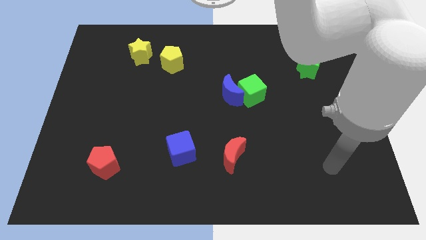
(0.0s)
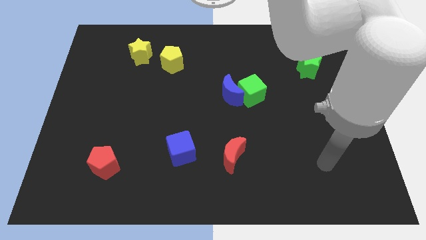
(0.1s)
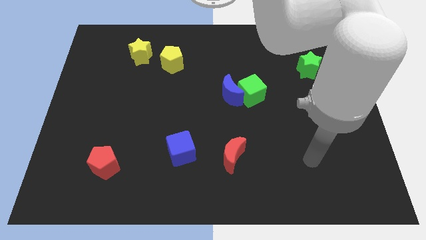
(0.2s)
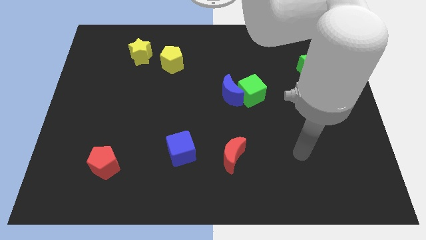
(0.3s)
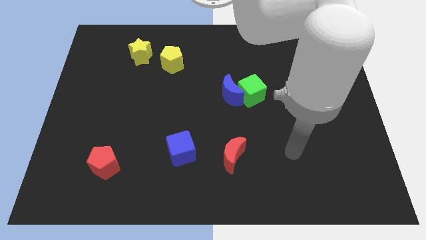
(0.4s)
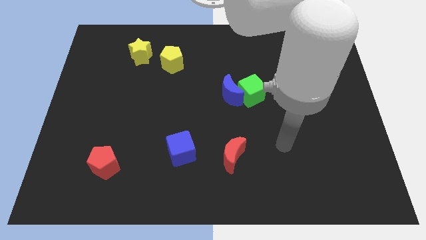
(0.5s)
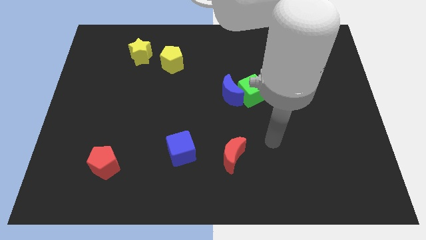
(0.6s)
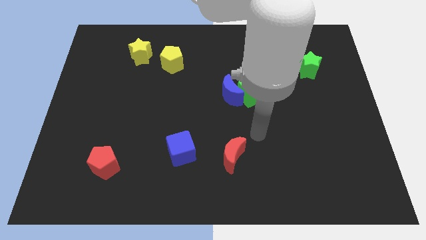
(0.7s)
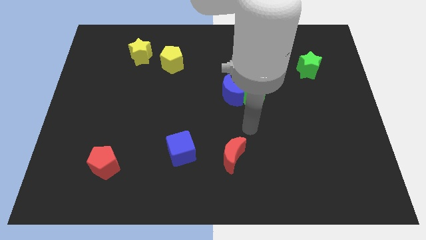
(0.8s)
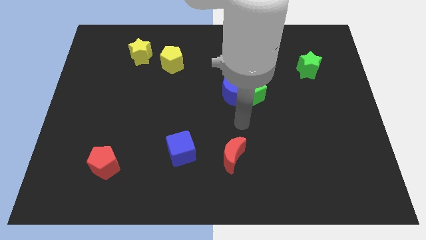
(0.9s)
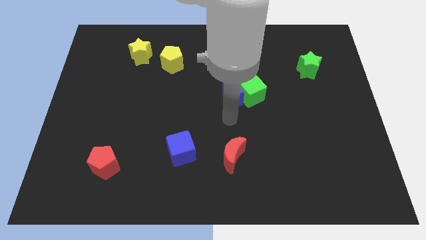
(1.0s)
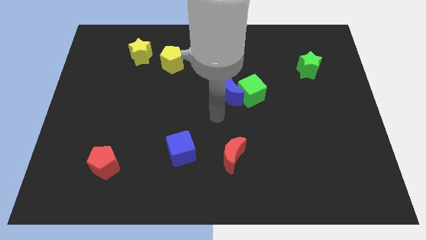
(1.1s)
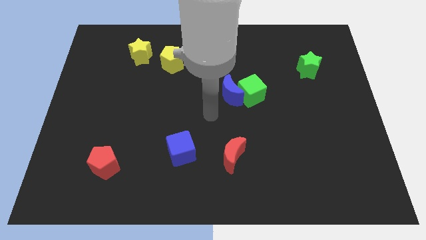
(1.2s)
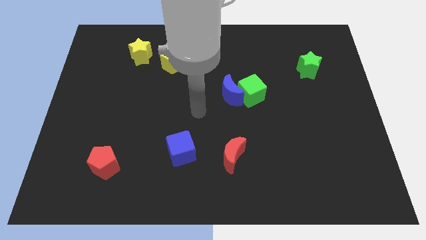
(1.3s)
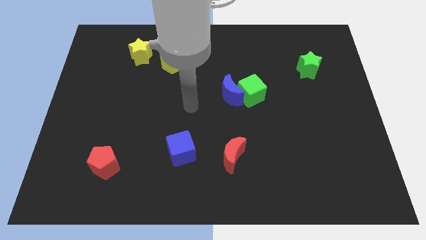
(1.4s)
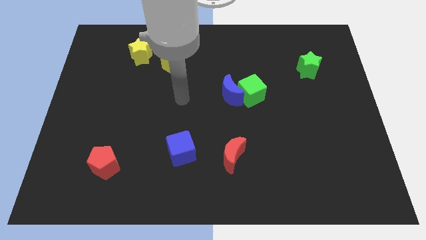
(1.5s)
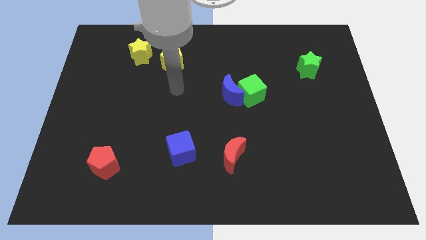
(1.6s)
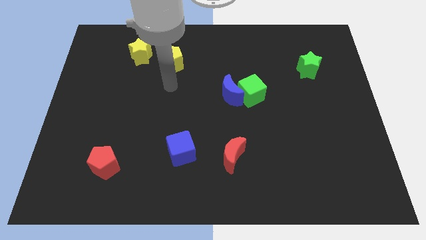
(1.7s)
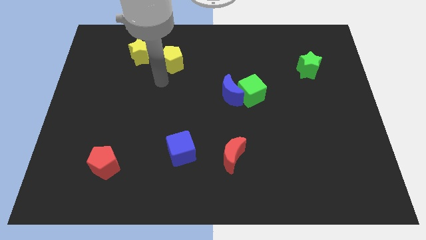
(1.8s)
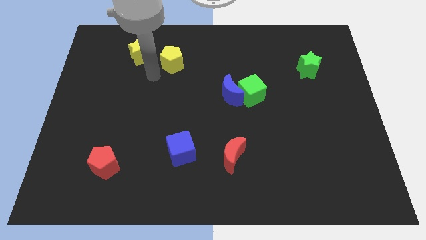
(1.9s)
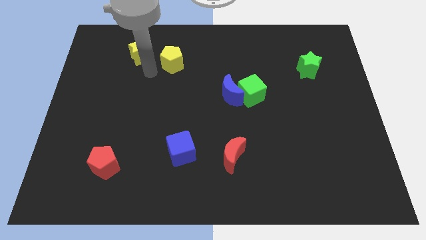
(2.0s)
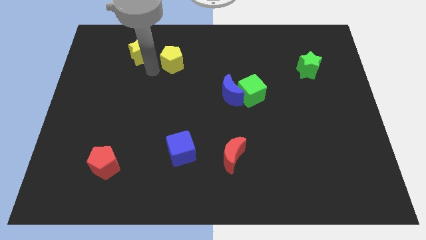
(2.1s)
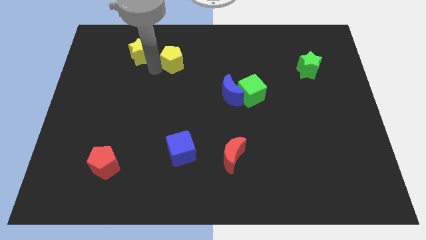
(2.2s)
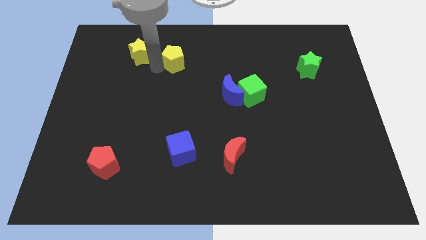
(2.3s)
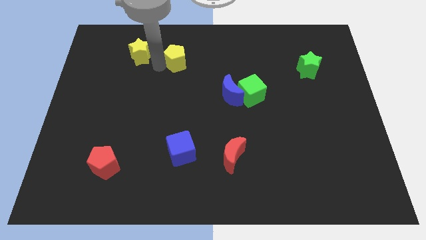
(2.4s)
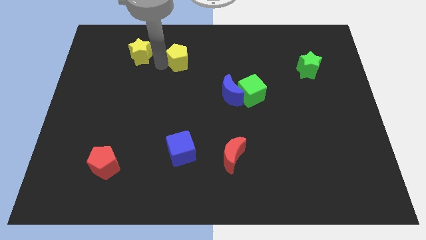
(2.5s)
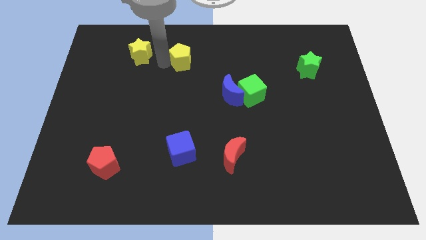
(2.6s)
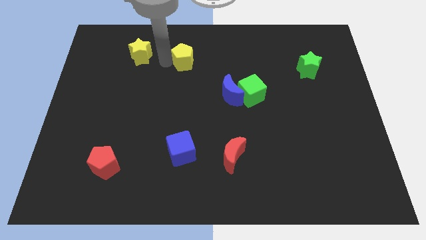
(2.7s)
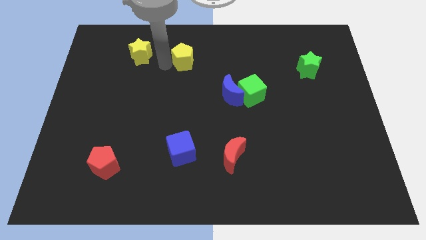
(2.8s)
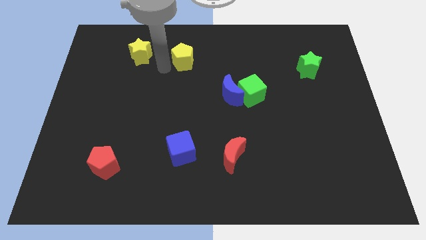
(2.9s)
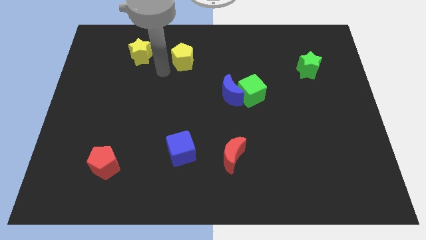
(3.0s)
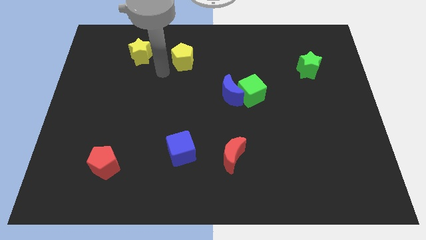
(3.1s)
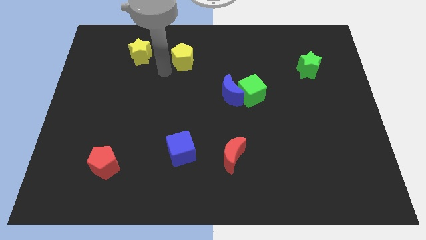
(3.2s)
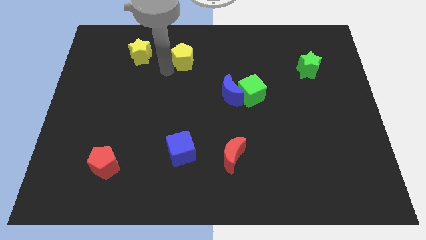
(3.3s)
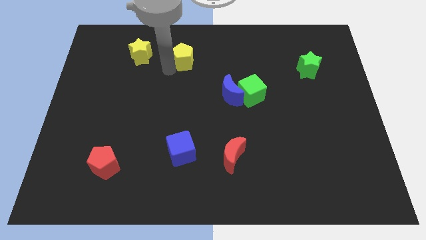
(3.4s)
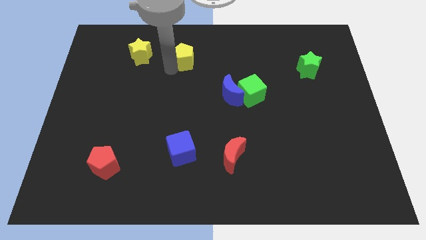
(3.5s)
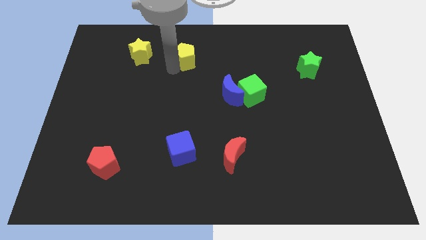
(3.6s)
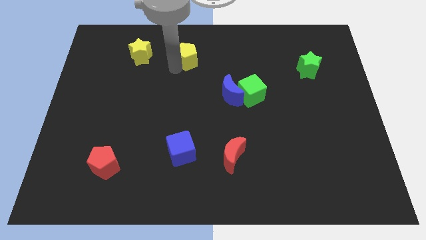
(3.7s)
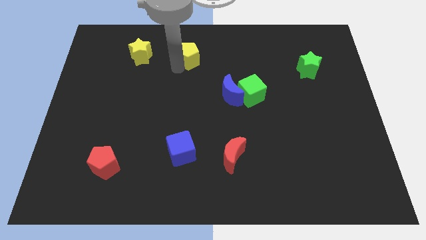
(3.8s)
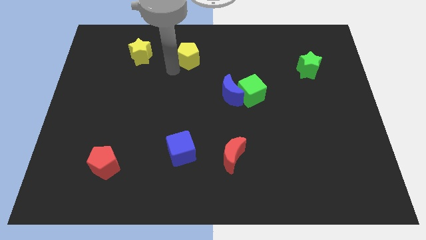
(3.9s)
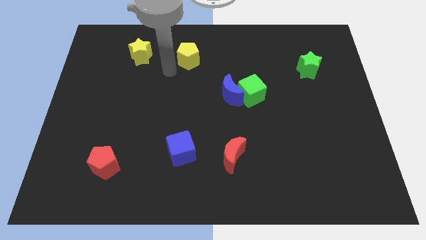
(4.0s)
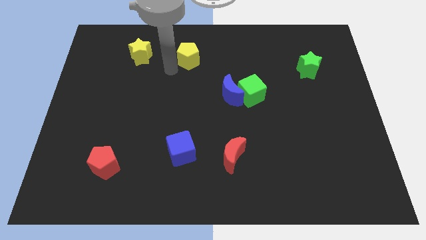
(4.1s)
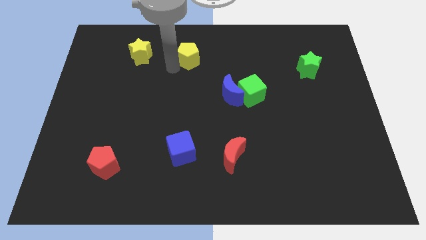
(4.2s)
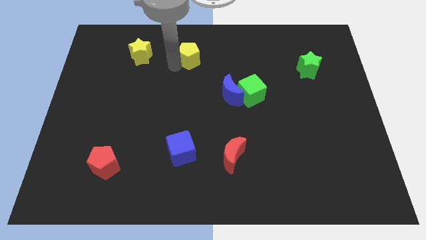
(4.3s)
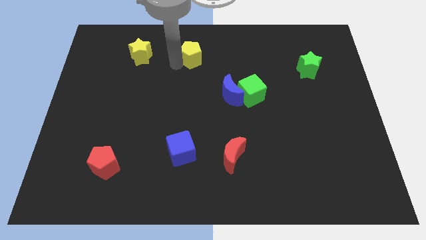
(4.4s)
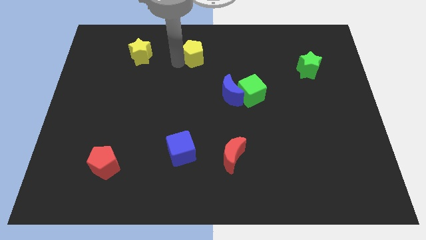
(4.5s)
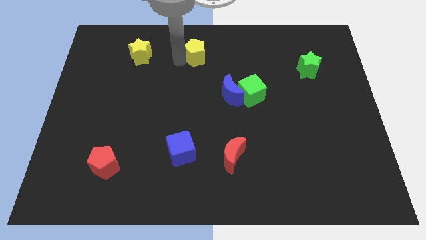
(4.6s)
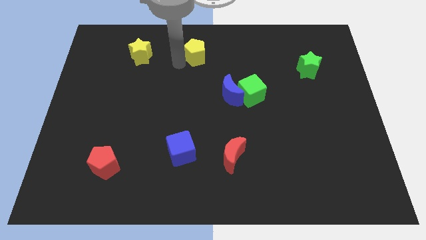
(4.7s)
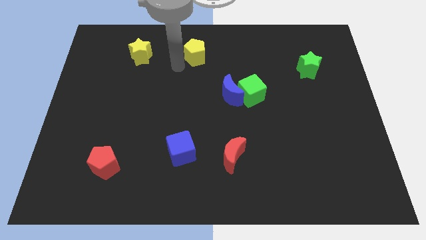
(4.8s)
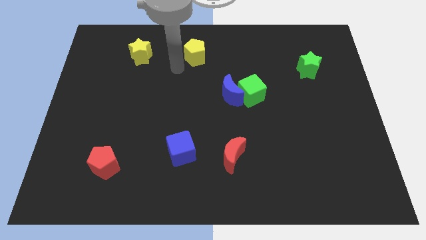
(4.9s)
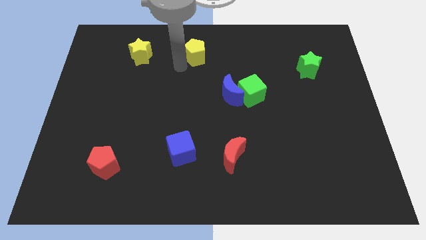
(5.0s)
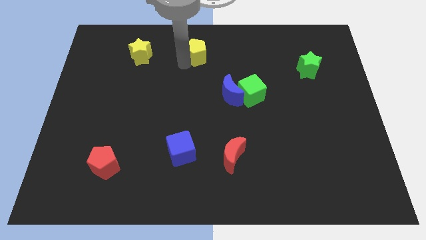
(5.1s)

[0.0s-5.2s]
move the yellow pentagon to the top side

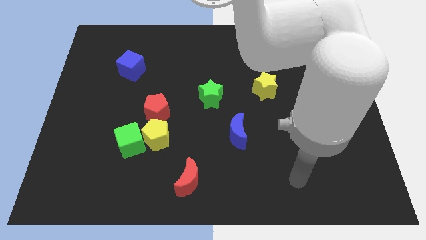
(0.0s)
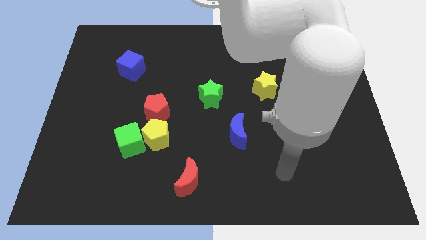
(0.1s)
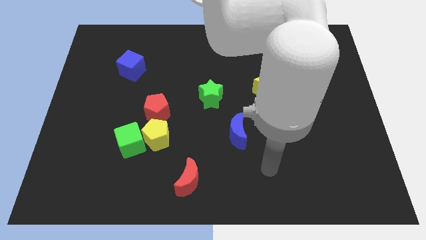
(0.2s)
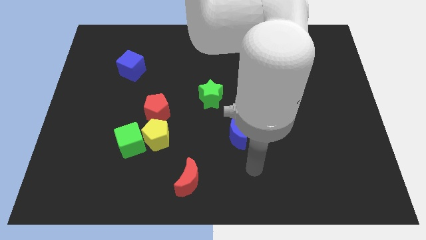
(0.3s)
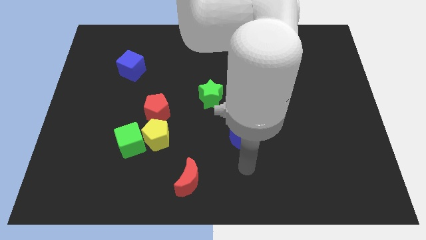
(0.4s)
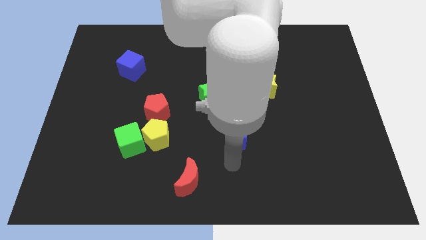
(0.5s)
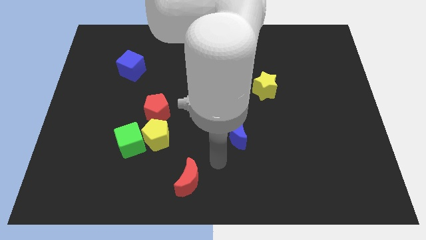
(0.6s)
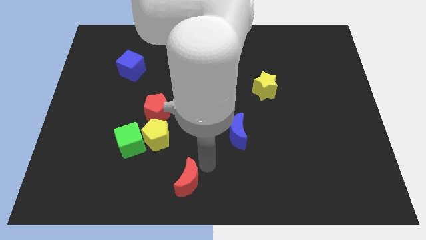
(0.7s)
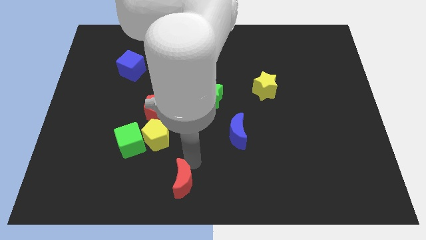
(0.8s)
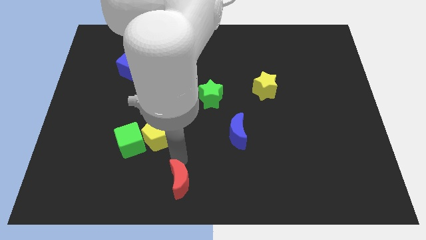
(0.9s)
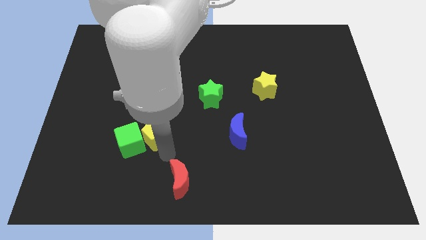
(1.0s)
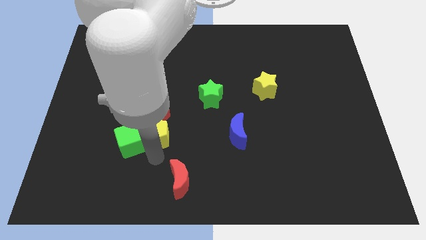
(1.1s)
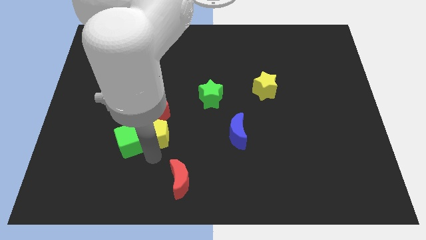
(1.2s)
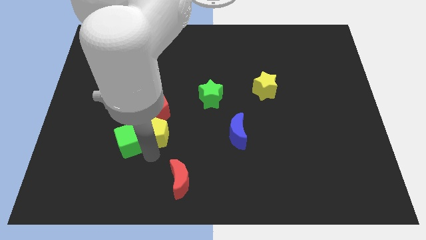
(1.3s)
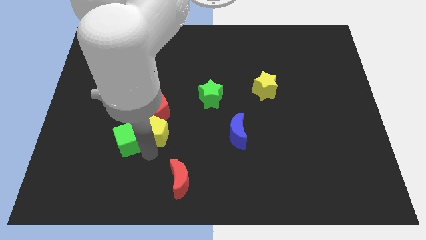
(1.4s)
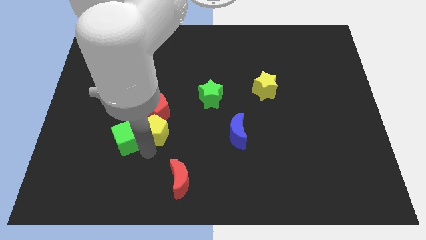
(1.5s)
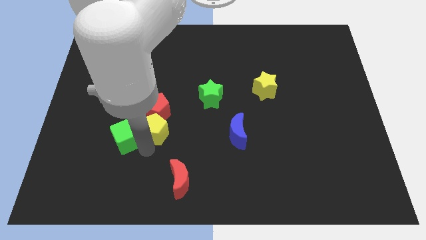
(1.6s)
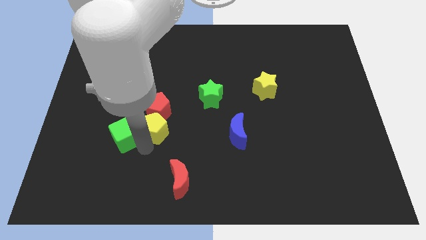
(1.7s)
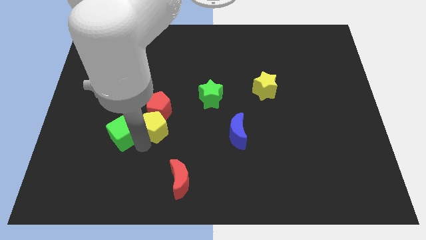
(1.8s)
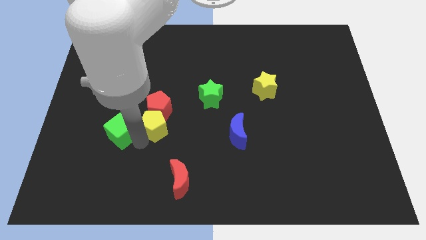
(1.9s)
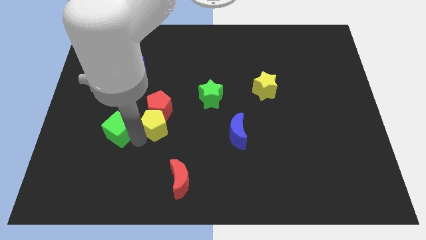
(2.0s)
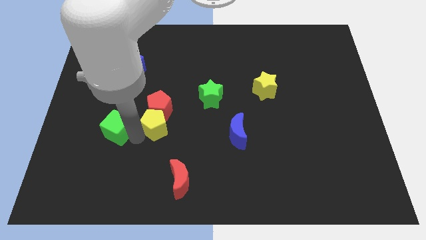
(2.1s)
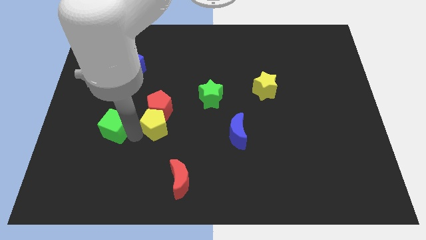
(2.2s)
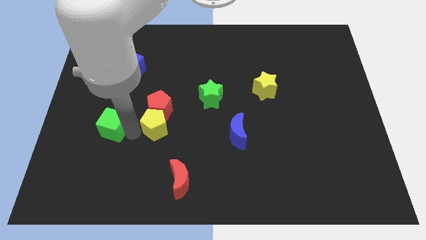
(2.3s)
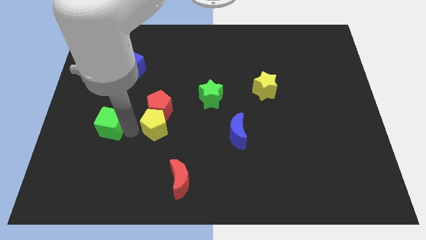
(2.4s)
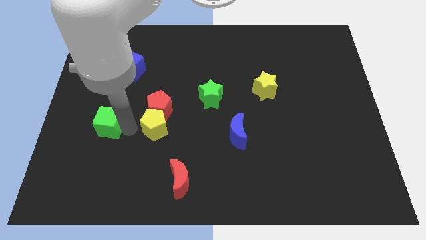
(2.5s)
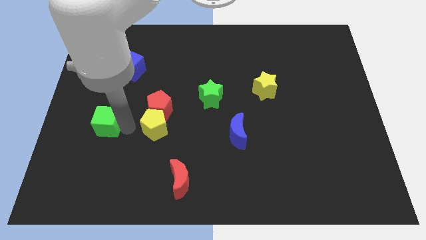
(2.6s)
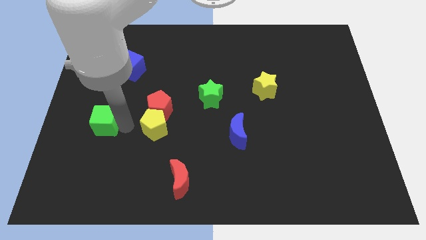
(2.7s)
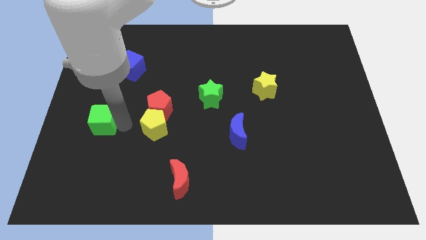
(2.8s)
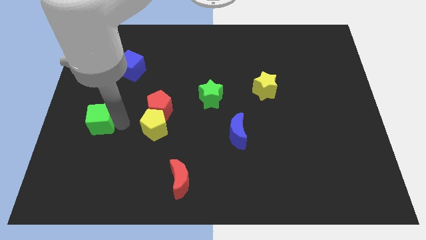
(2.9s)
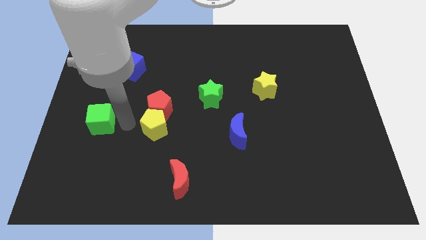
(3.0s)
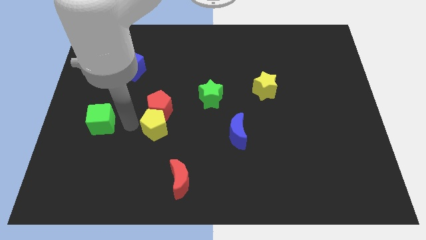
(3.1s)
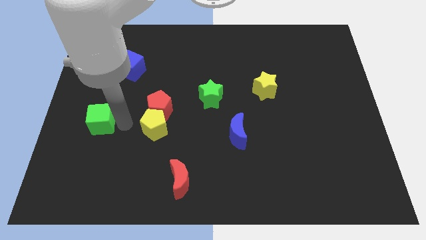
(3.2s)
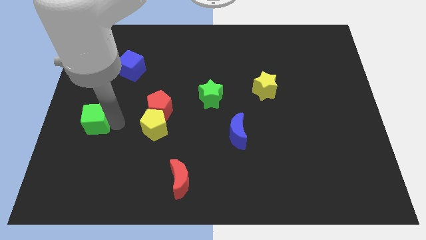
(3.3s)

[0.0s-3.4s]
slide the green cube to the left side
